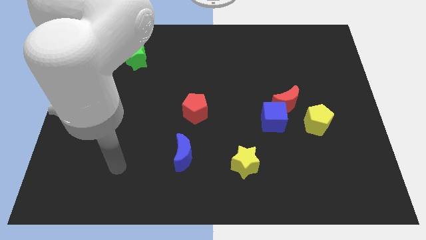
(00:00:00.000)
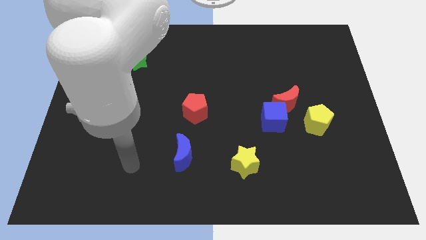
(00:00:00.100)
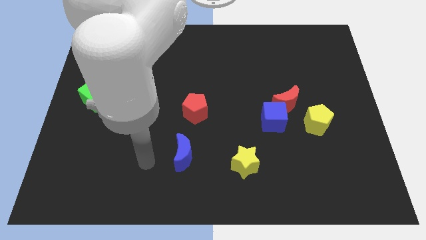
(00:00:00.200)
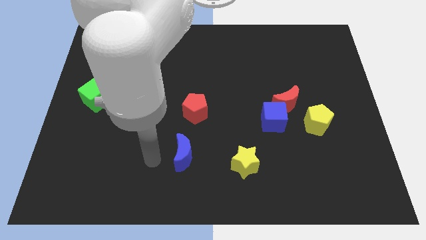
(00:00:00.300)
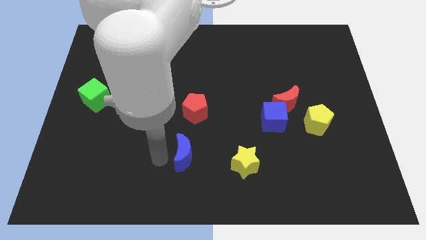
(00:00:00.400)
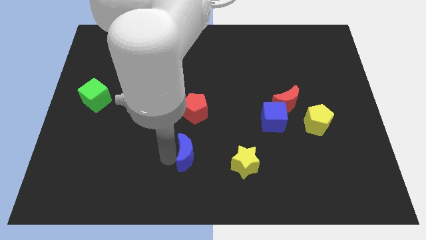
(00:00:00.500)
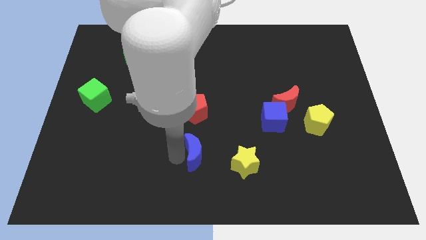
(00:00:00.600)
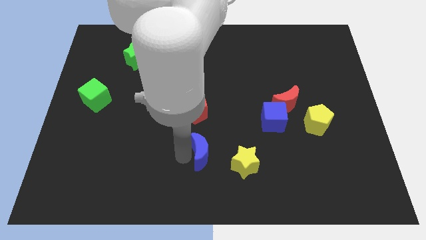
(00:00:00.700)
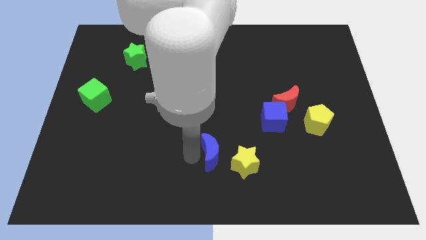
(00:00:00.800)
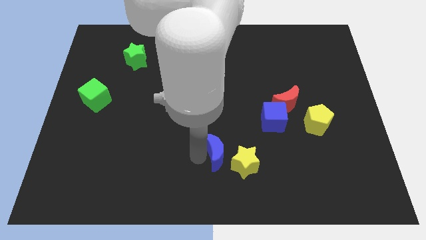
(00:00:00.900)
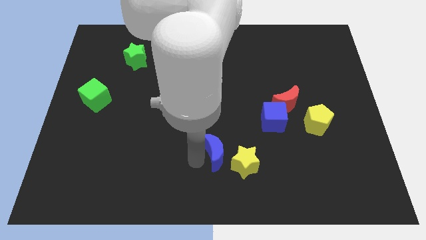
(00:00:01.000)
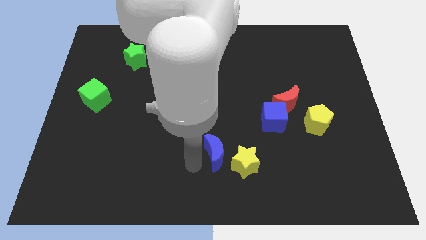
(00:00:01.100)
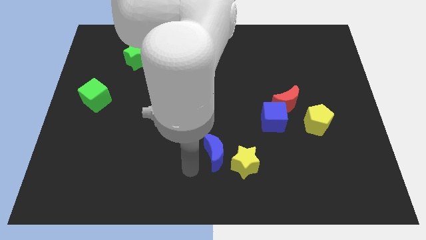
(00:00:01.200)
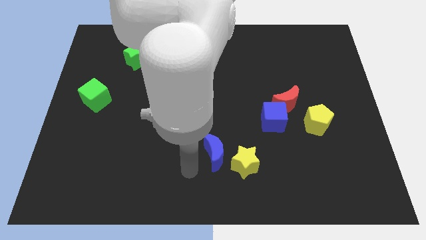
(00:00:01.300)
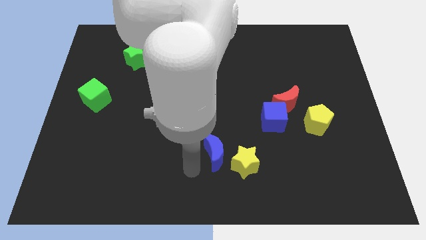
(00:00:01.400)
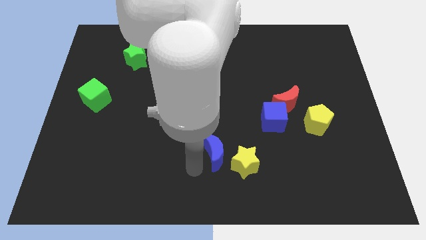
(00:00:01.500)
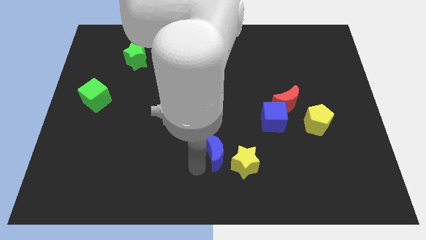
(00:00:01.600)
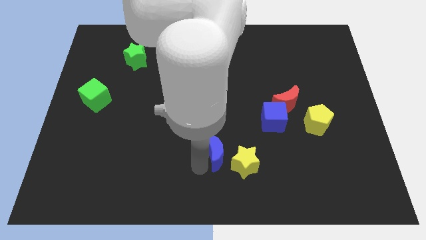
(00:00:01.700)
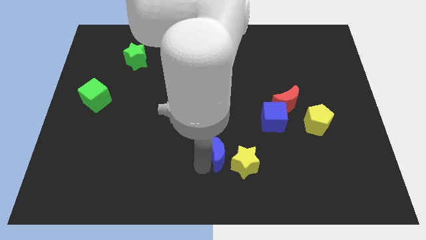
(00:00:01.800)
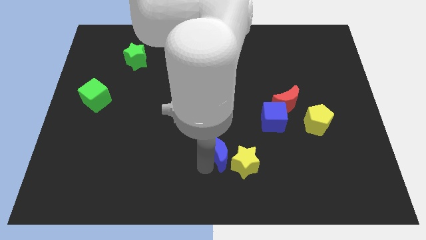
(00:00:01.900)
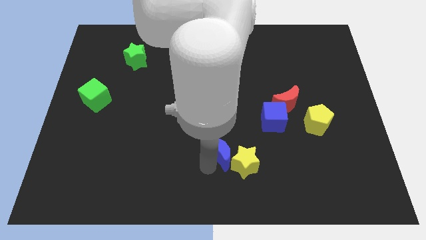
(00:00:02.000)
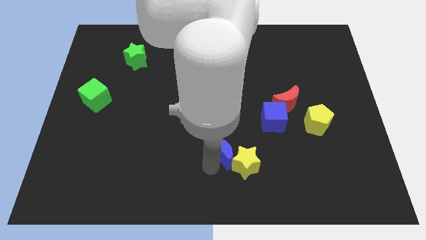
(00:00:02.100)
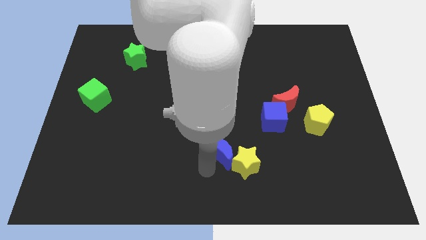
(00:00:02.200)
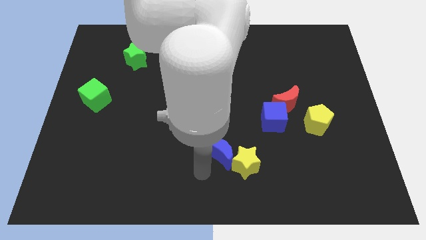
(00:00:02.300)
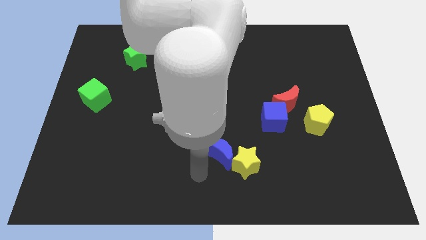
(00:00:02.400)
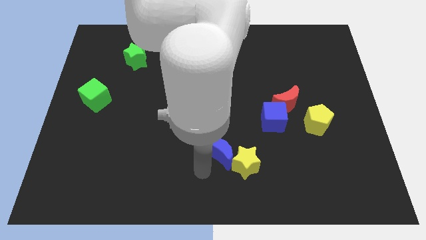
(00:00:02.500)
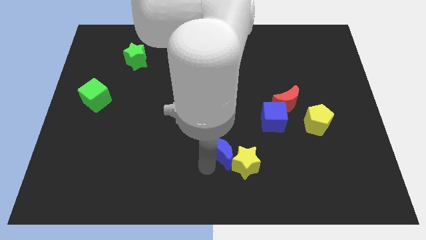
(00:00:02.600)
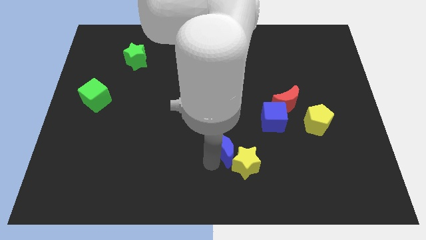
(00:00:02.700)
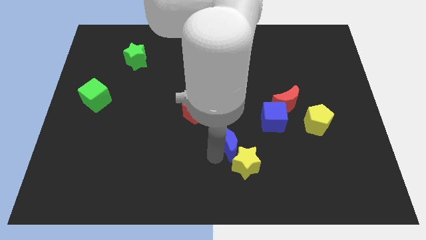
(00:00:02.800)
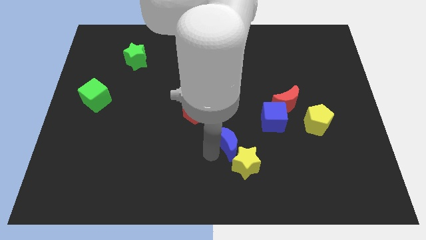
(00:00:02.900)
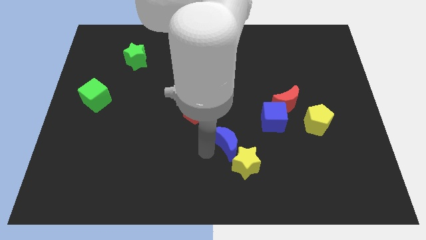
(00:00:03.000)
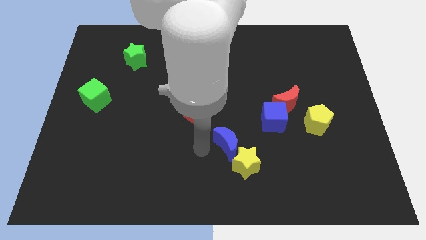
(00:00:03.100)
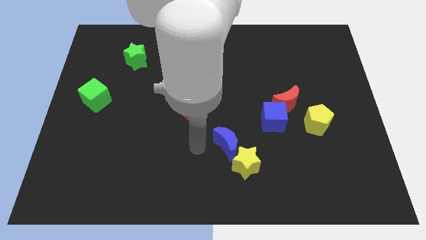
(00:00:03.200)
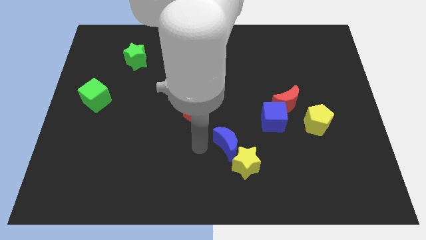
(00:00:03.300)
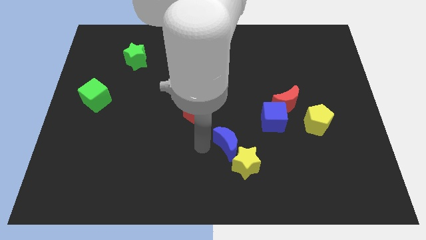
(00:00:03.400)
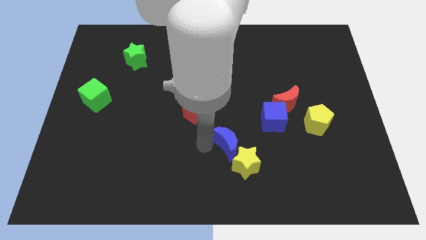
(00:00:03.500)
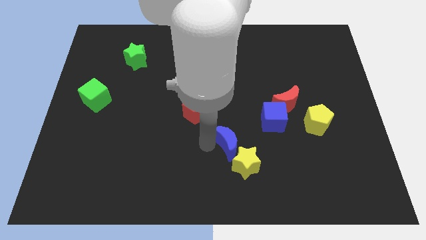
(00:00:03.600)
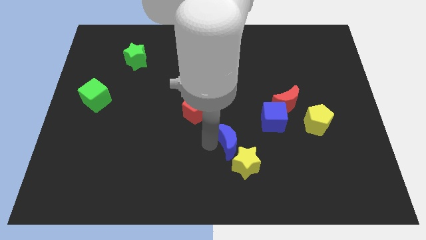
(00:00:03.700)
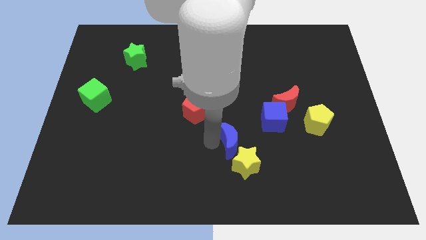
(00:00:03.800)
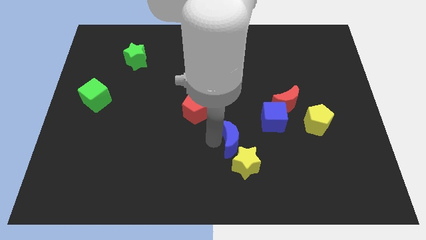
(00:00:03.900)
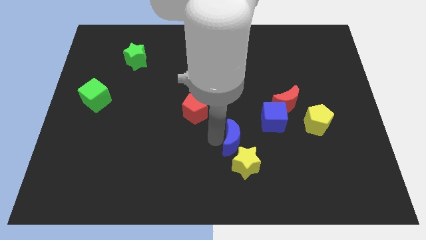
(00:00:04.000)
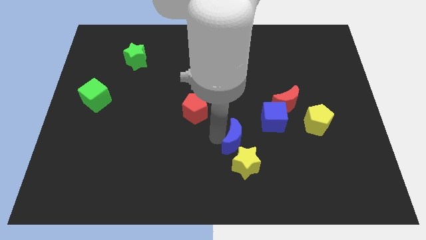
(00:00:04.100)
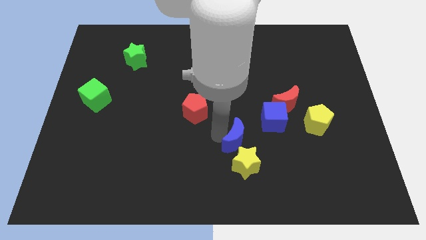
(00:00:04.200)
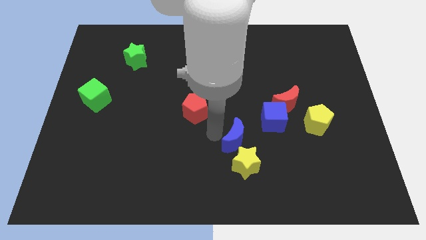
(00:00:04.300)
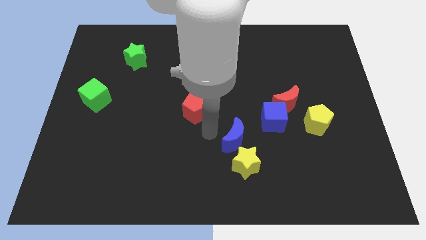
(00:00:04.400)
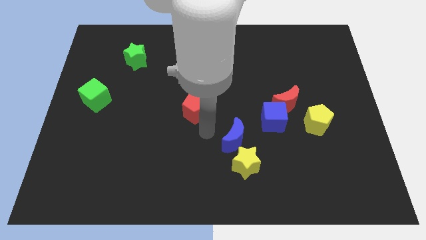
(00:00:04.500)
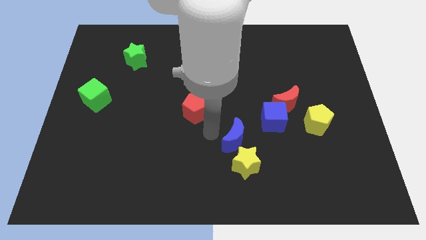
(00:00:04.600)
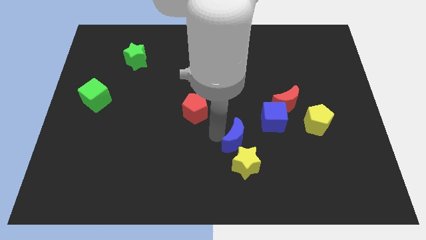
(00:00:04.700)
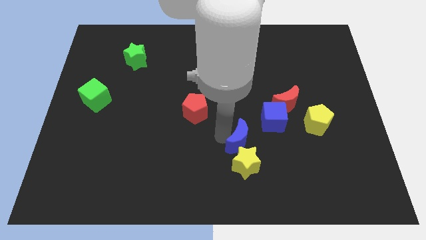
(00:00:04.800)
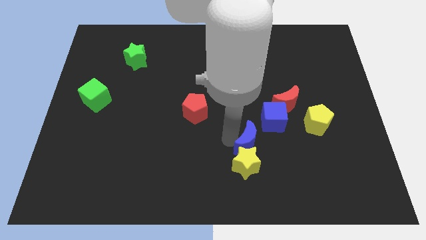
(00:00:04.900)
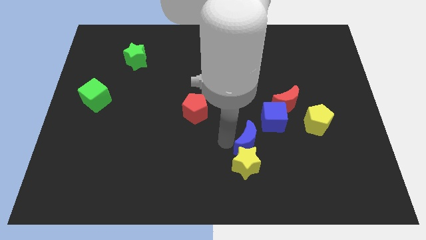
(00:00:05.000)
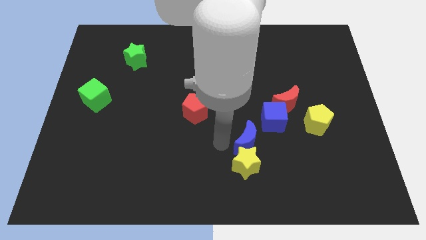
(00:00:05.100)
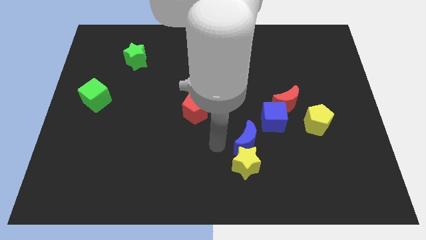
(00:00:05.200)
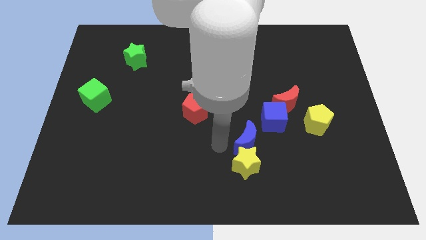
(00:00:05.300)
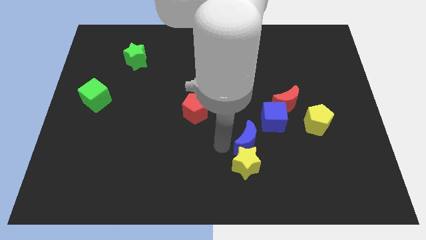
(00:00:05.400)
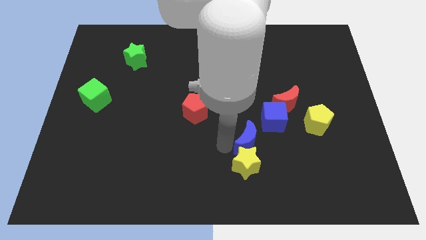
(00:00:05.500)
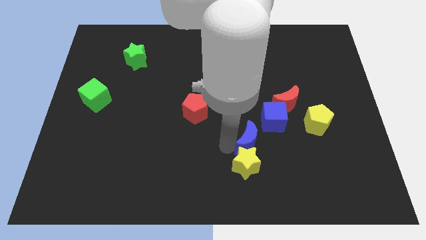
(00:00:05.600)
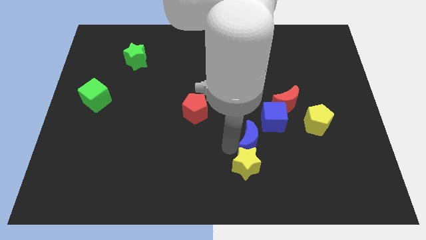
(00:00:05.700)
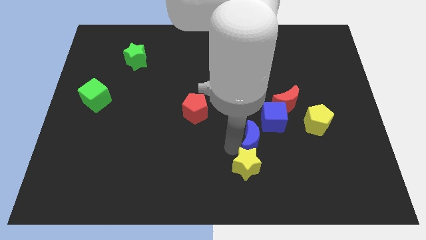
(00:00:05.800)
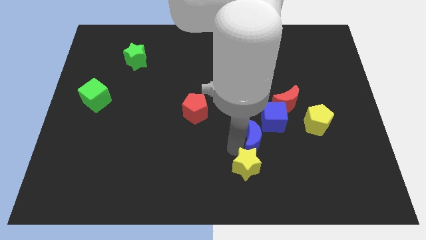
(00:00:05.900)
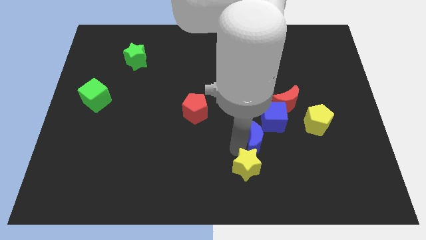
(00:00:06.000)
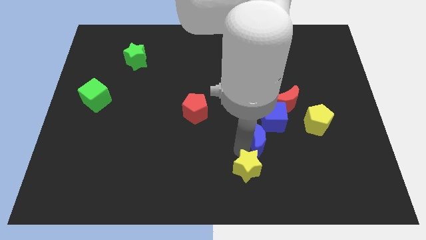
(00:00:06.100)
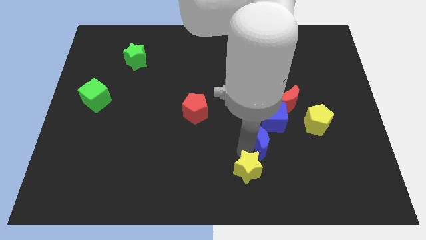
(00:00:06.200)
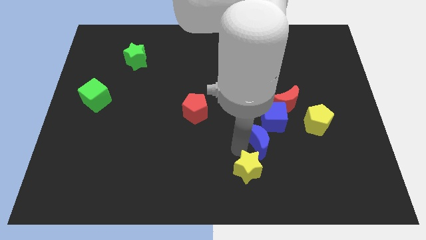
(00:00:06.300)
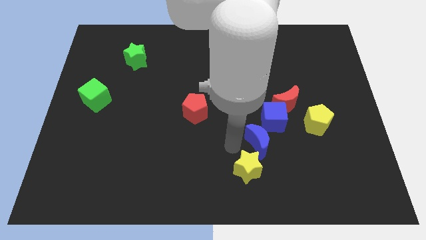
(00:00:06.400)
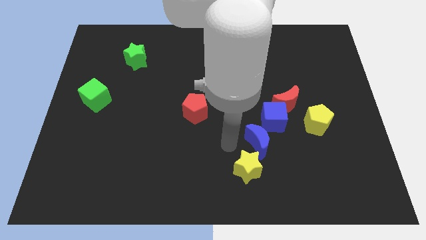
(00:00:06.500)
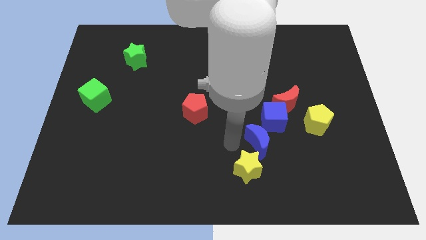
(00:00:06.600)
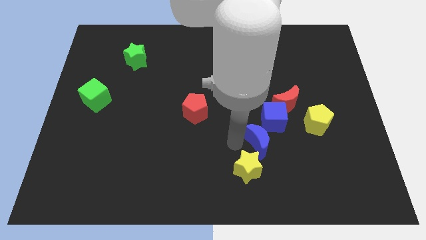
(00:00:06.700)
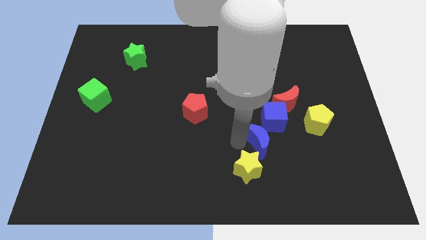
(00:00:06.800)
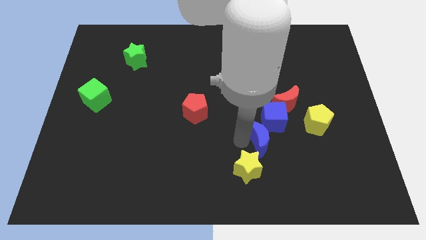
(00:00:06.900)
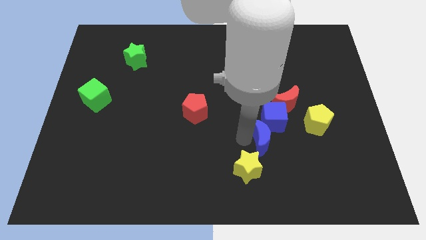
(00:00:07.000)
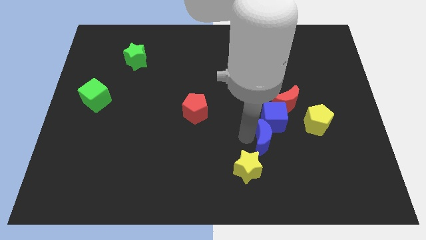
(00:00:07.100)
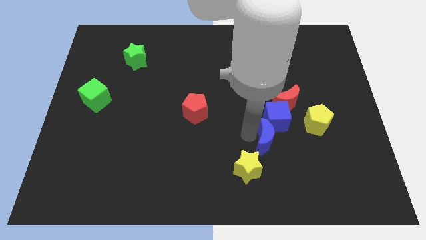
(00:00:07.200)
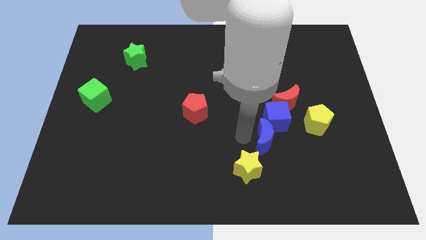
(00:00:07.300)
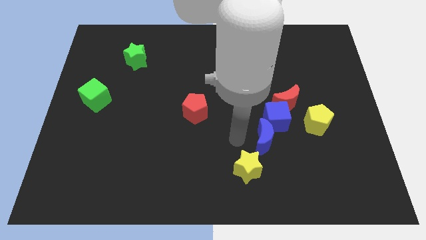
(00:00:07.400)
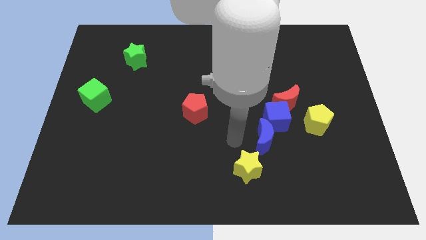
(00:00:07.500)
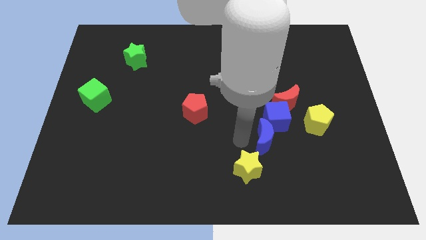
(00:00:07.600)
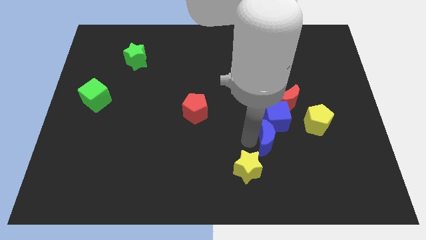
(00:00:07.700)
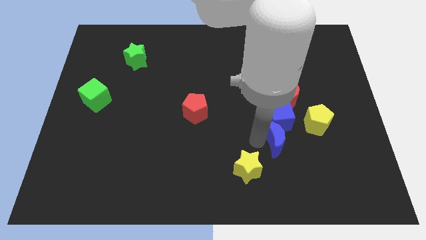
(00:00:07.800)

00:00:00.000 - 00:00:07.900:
put the blue moon below the red moon
